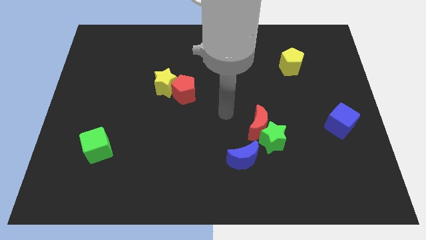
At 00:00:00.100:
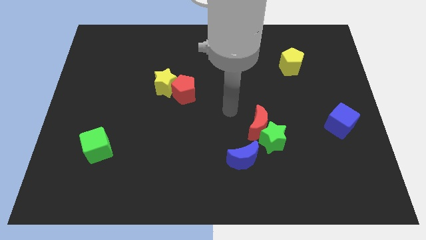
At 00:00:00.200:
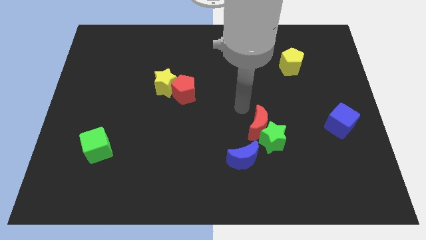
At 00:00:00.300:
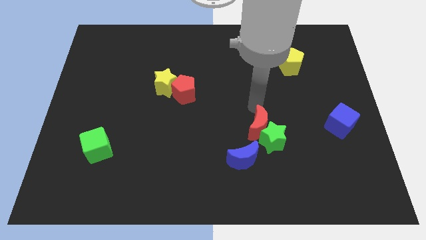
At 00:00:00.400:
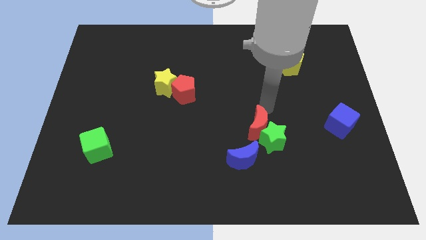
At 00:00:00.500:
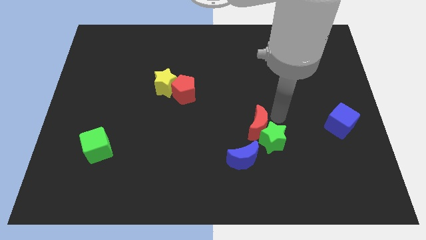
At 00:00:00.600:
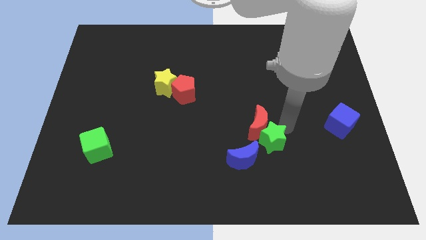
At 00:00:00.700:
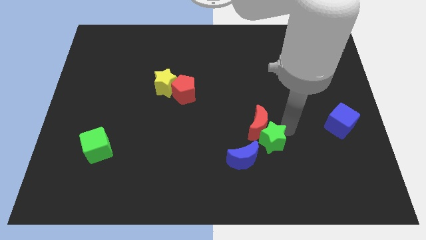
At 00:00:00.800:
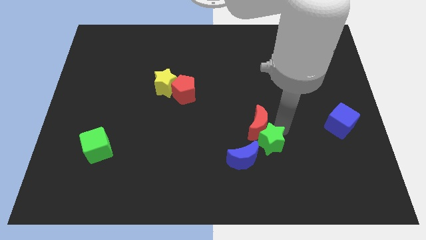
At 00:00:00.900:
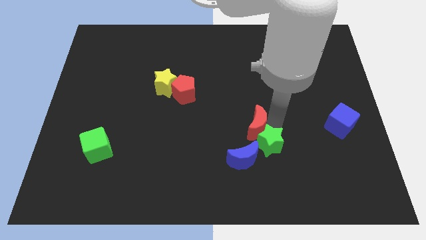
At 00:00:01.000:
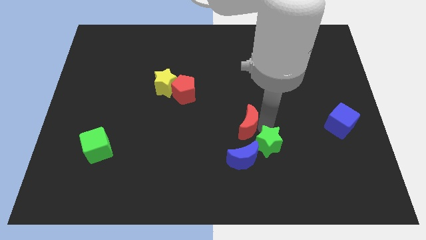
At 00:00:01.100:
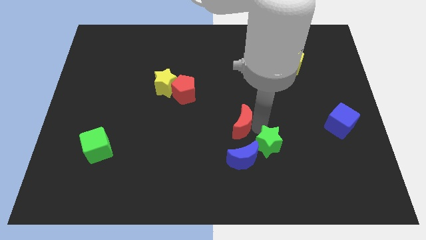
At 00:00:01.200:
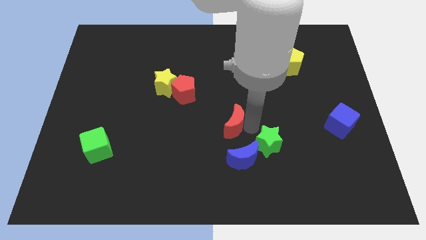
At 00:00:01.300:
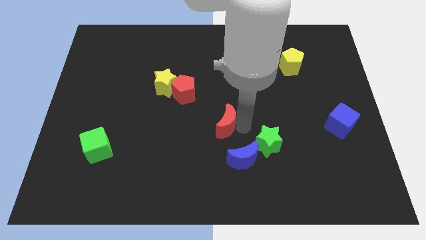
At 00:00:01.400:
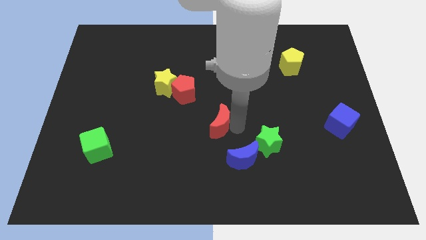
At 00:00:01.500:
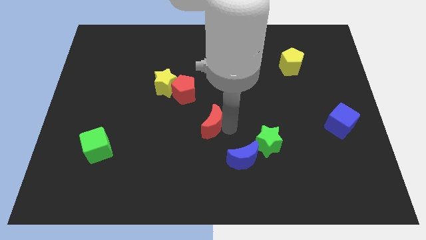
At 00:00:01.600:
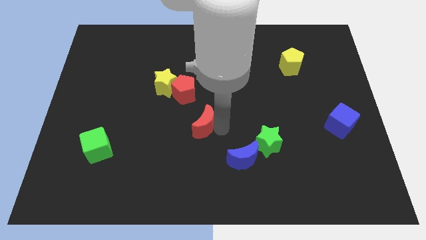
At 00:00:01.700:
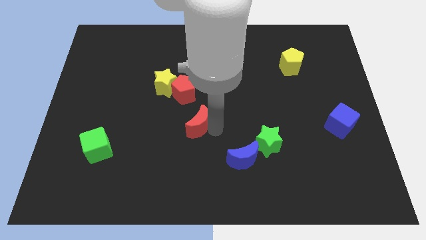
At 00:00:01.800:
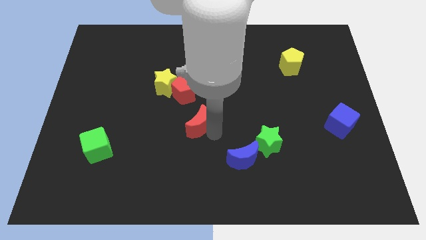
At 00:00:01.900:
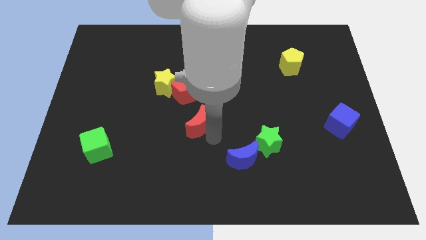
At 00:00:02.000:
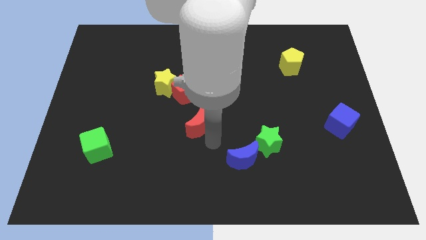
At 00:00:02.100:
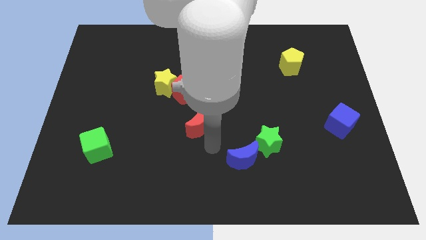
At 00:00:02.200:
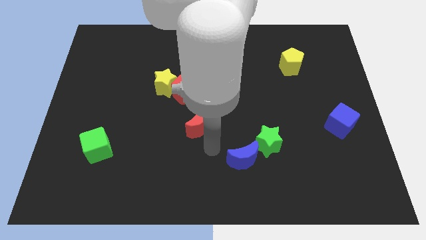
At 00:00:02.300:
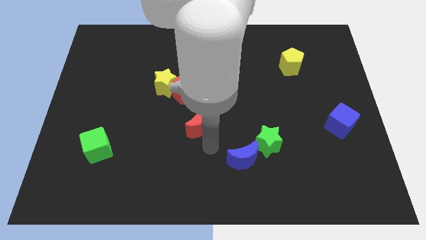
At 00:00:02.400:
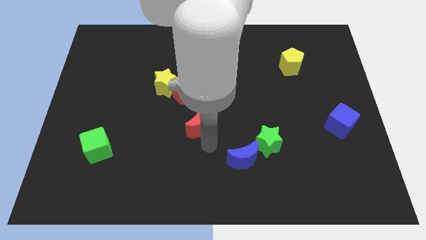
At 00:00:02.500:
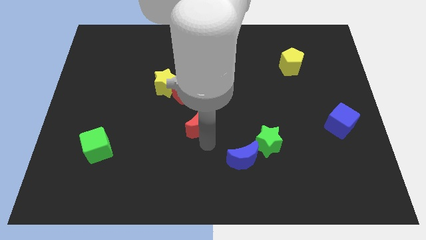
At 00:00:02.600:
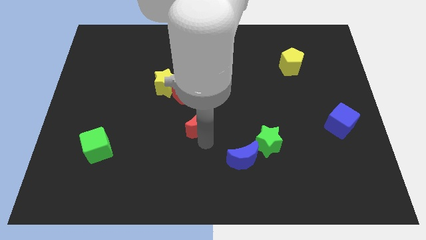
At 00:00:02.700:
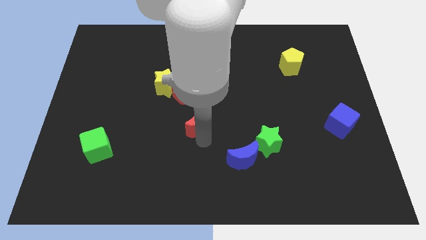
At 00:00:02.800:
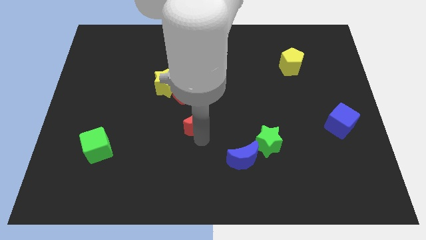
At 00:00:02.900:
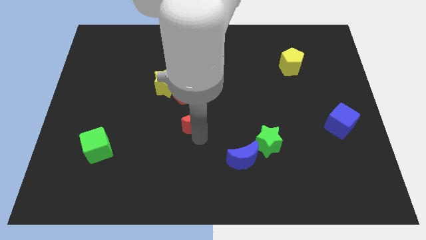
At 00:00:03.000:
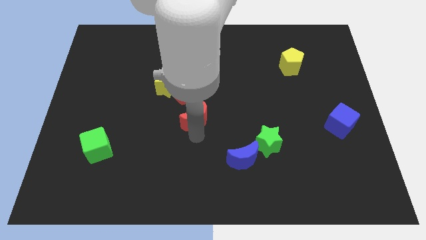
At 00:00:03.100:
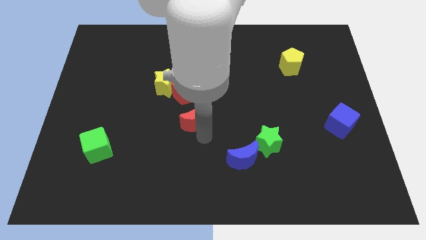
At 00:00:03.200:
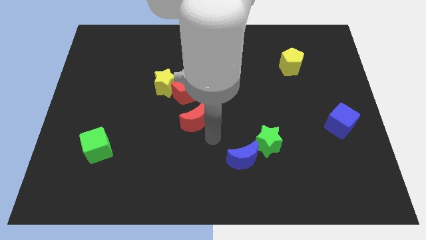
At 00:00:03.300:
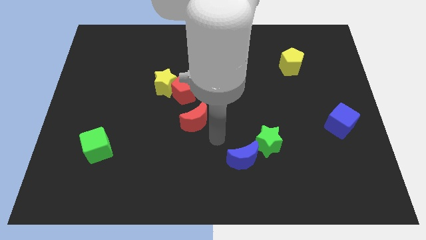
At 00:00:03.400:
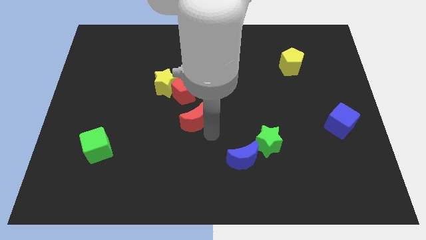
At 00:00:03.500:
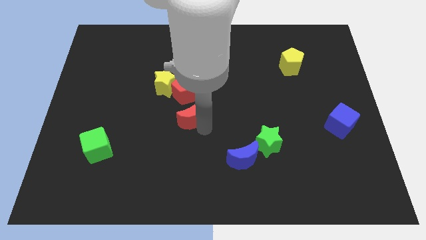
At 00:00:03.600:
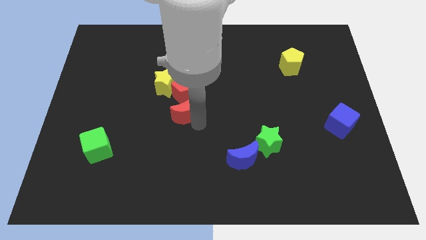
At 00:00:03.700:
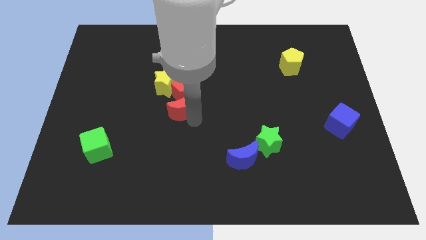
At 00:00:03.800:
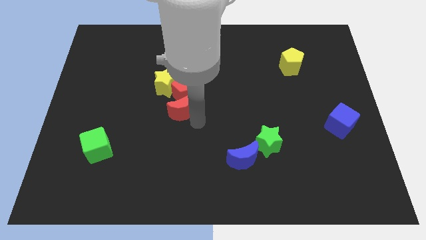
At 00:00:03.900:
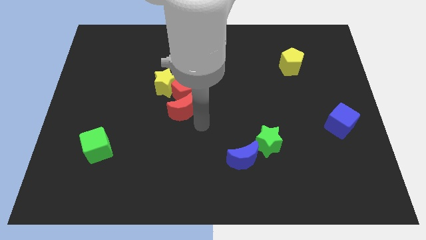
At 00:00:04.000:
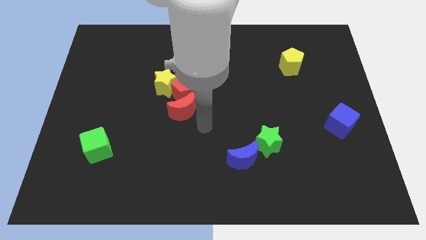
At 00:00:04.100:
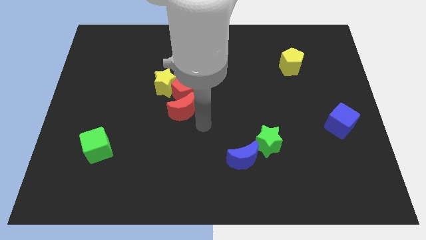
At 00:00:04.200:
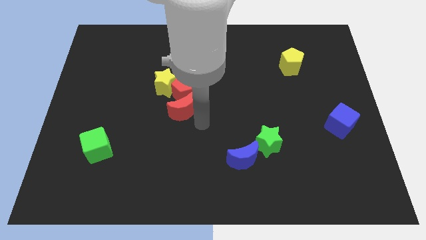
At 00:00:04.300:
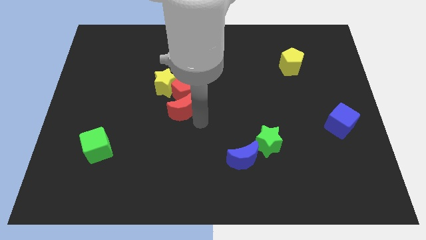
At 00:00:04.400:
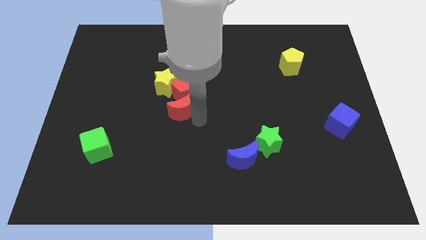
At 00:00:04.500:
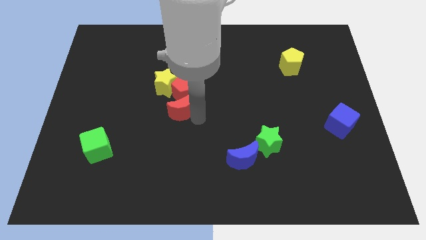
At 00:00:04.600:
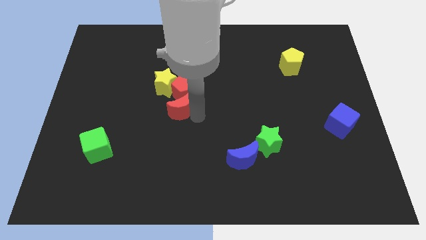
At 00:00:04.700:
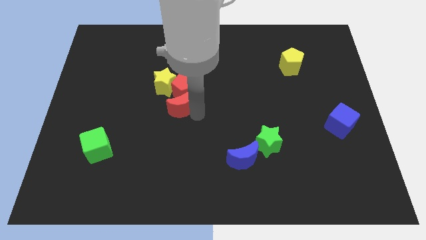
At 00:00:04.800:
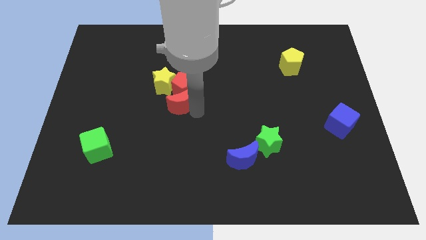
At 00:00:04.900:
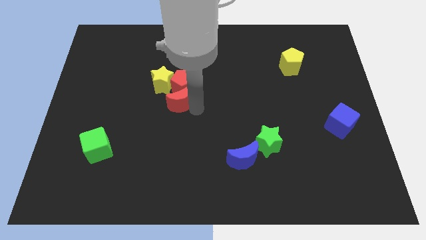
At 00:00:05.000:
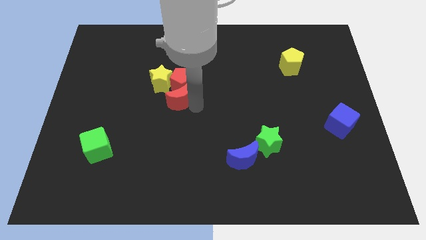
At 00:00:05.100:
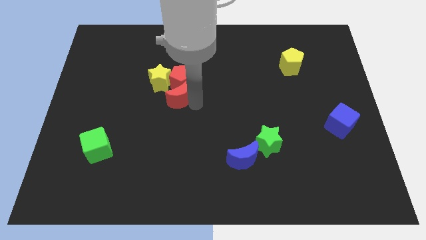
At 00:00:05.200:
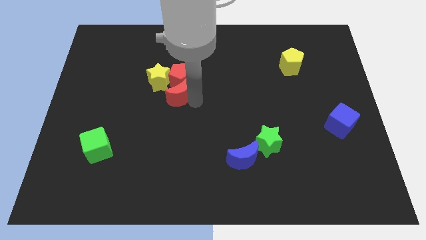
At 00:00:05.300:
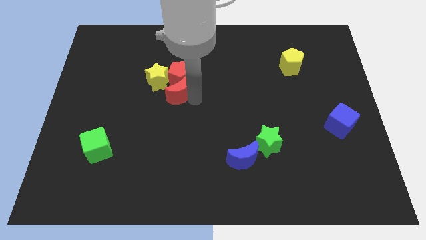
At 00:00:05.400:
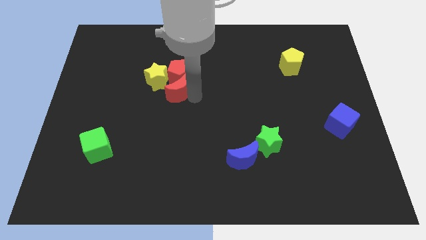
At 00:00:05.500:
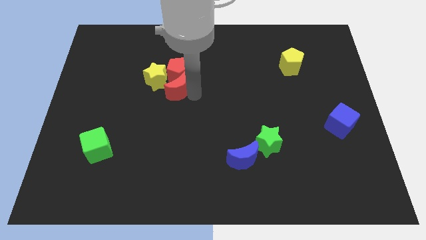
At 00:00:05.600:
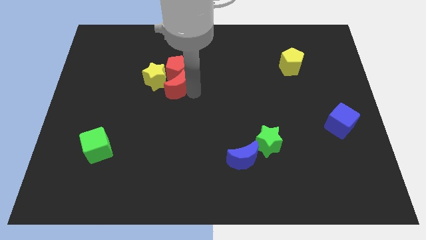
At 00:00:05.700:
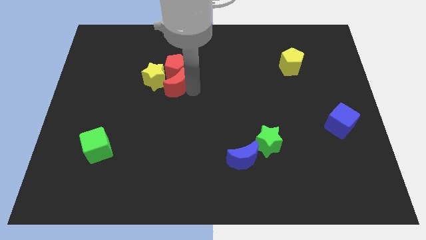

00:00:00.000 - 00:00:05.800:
move the red moon to the yellow star
